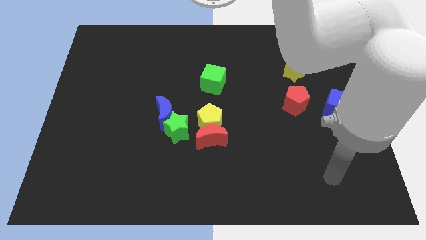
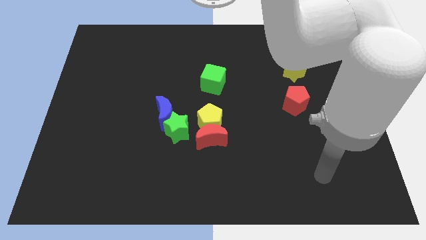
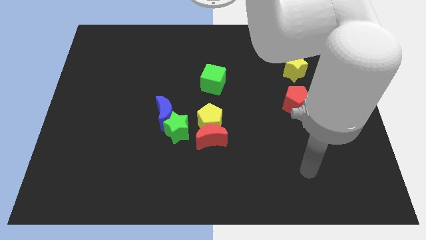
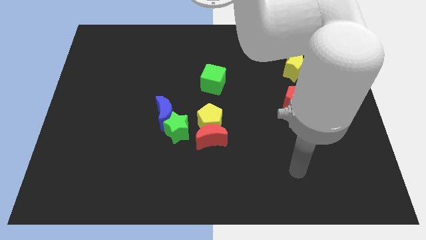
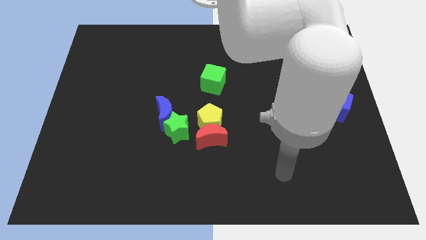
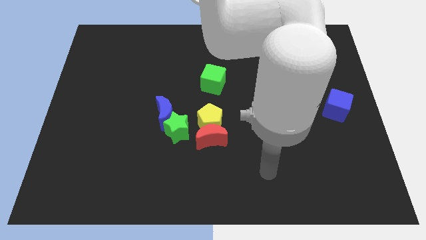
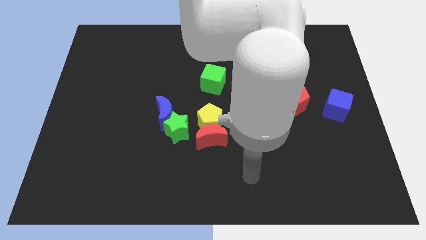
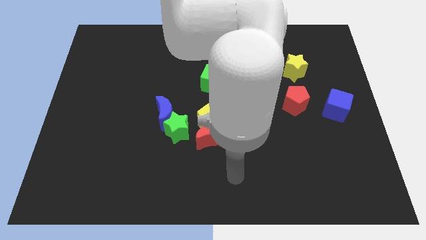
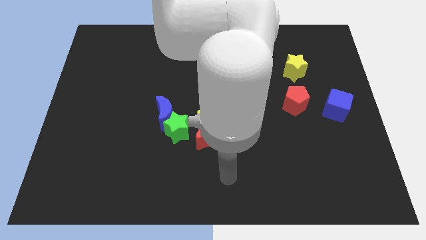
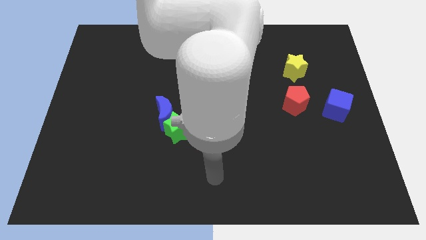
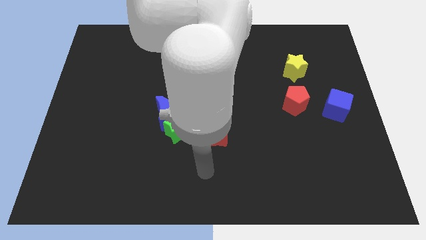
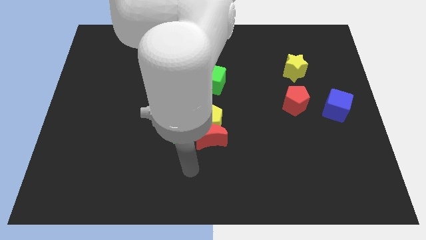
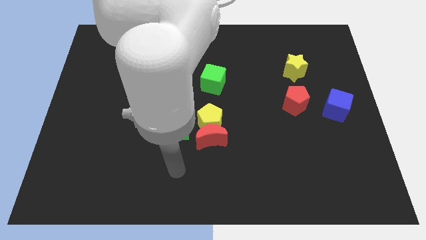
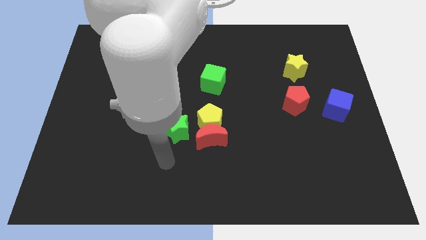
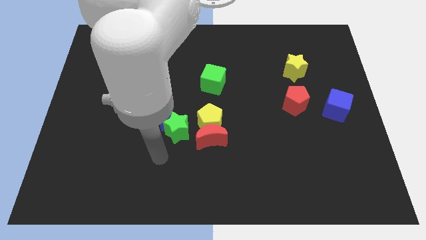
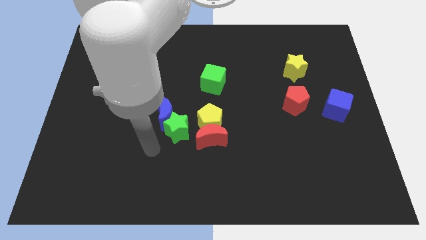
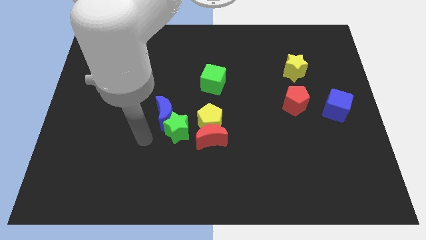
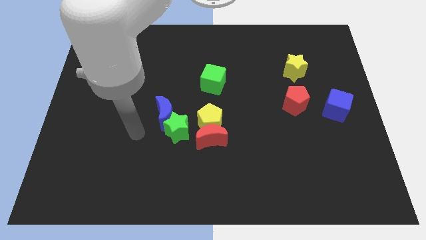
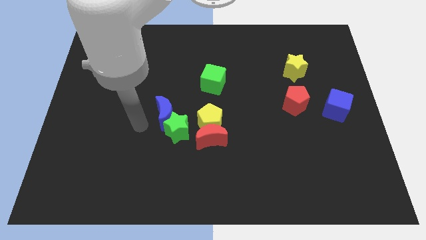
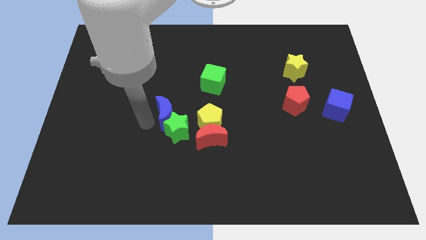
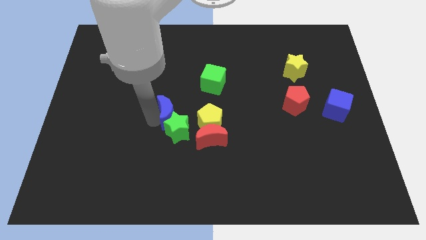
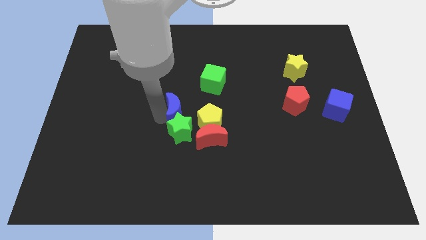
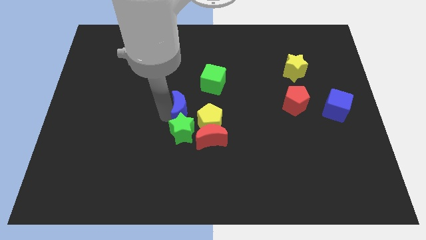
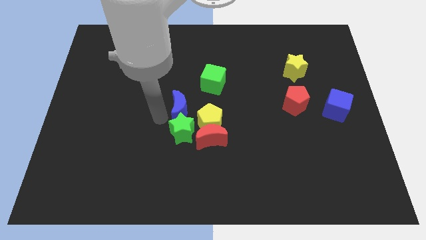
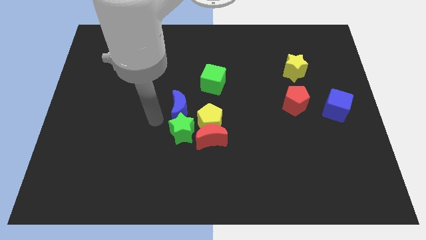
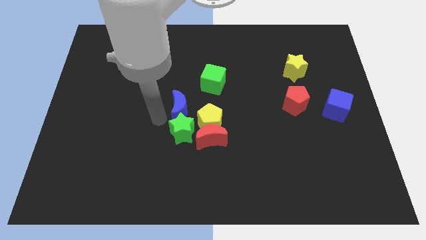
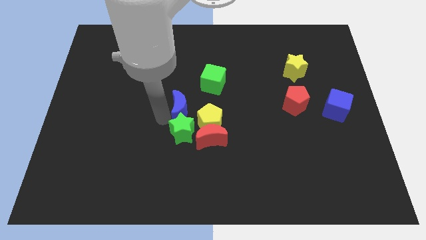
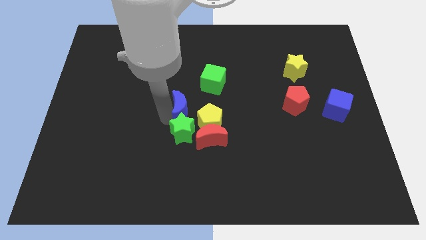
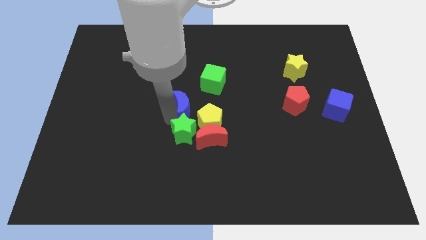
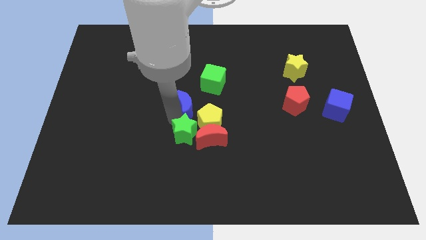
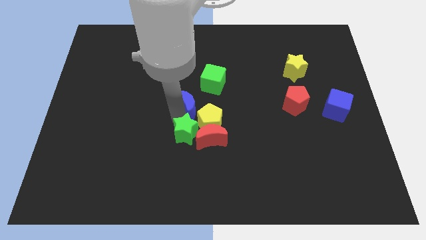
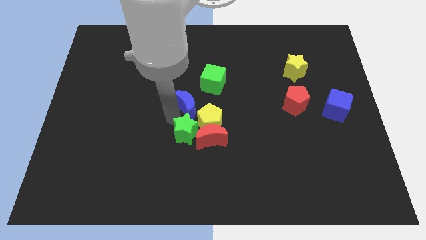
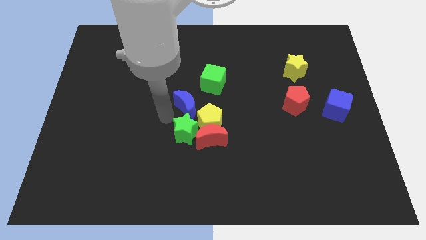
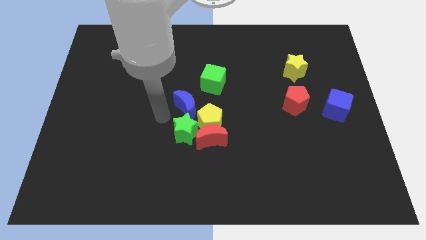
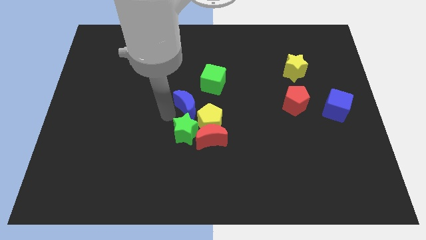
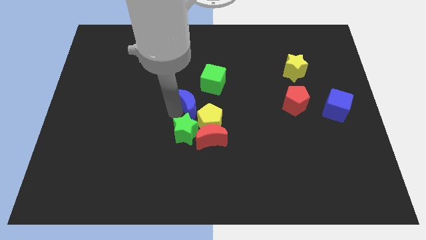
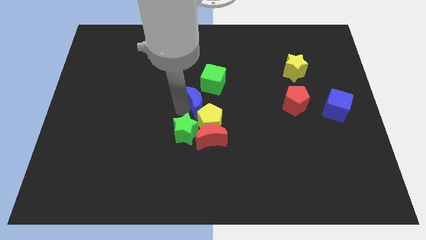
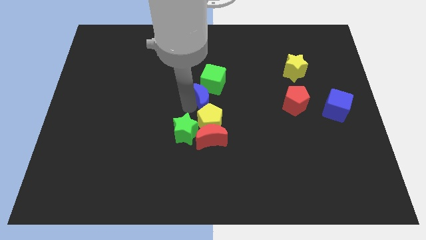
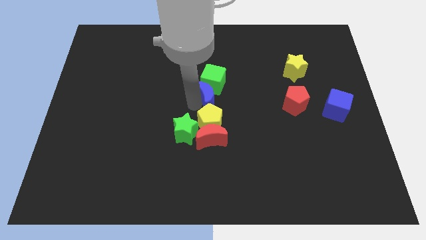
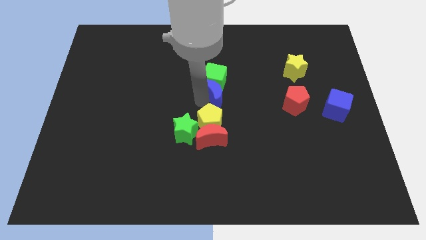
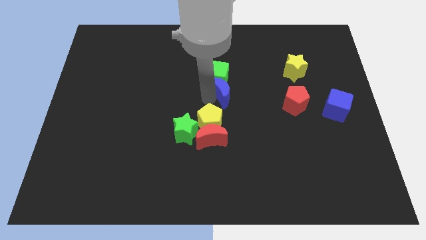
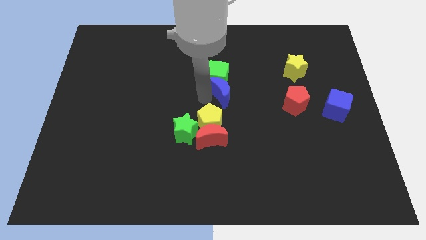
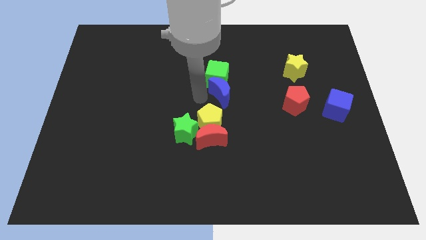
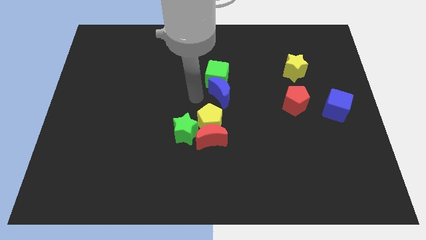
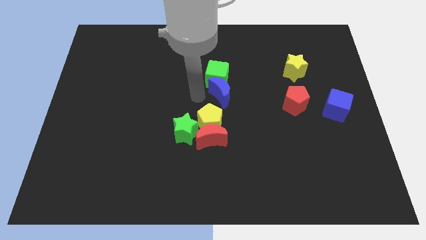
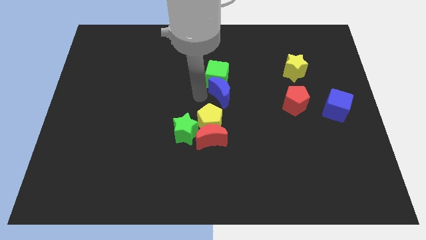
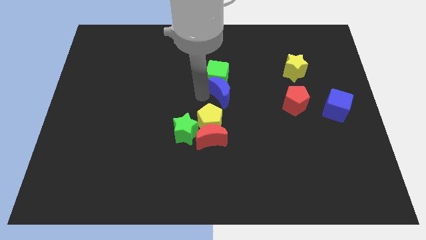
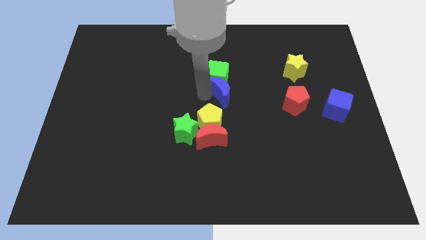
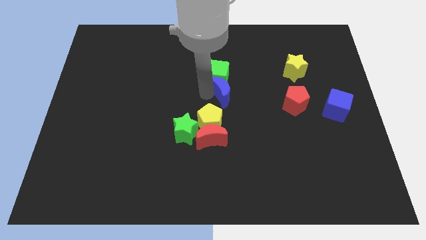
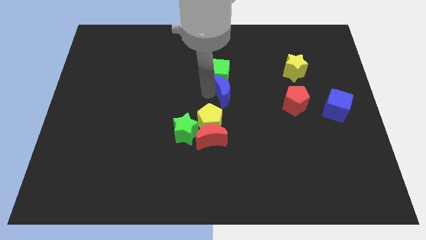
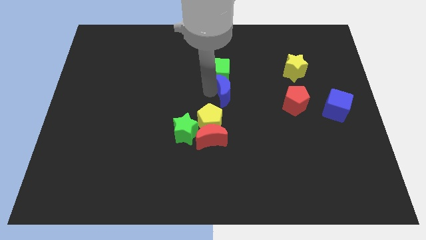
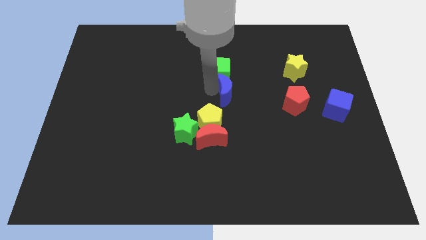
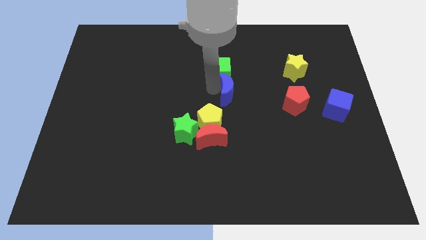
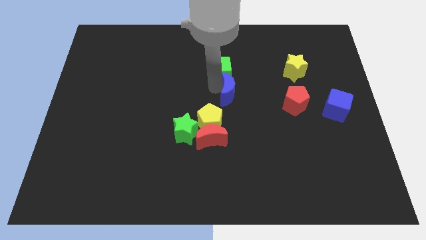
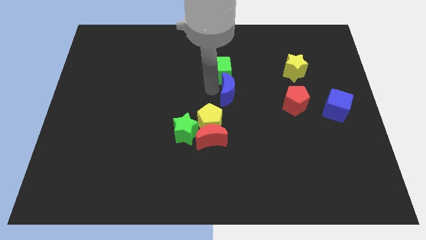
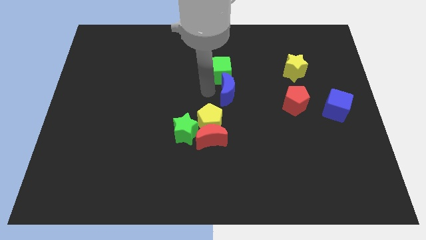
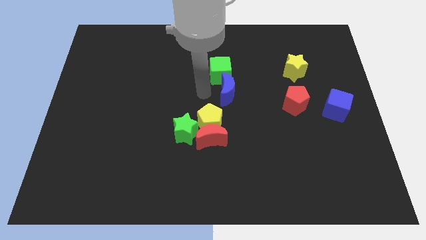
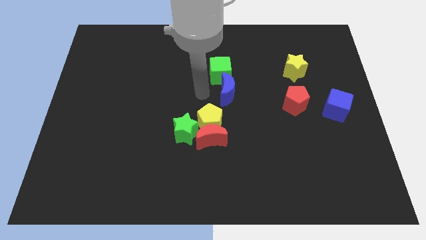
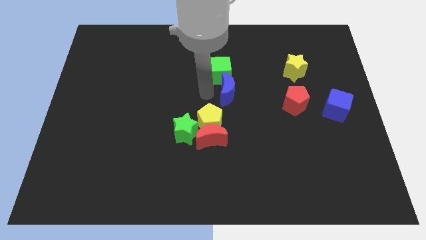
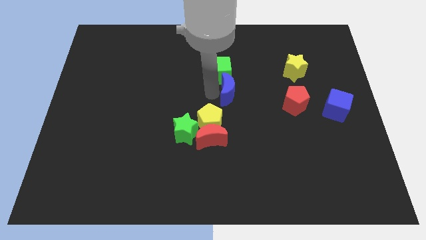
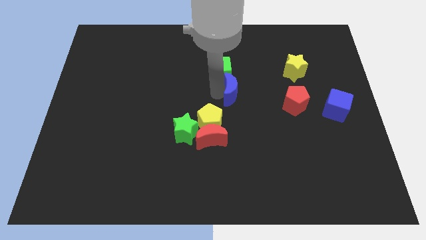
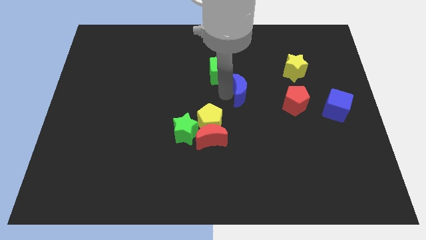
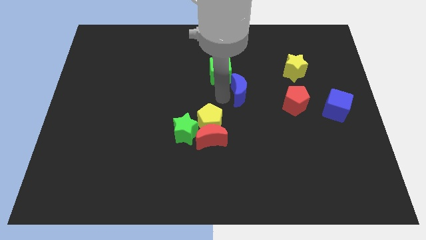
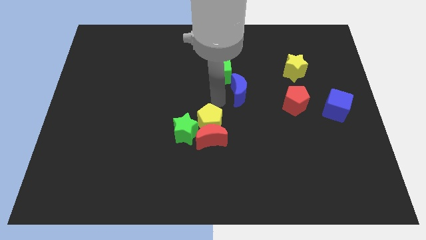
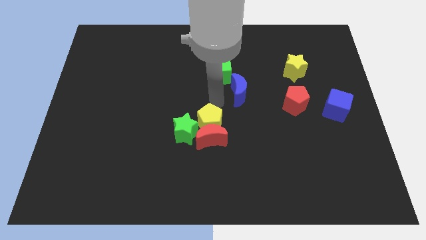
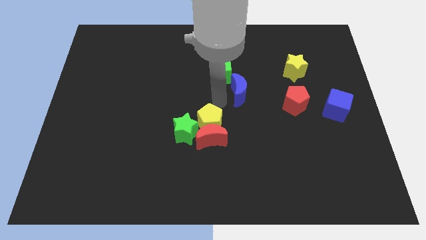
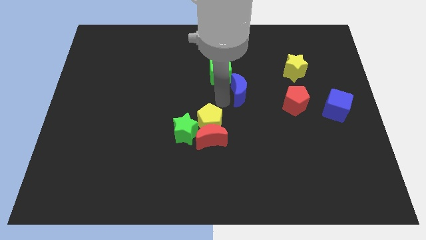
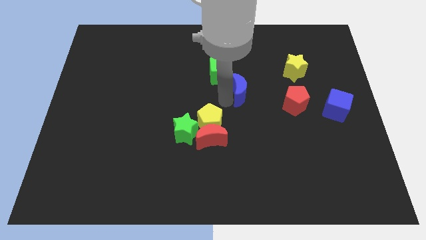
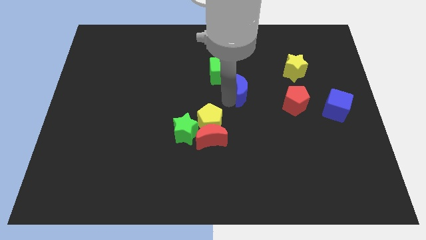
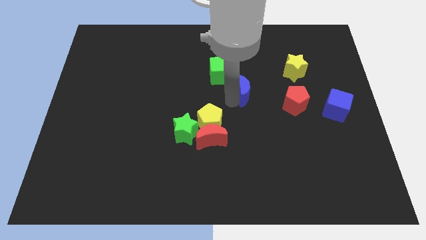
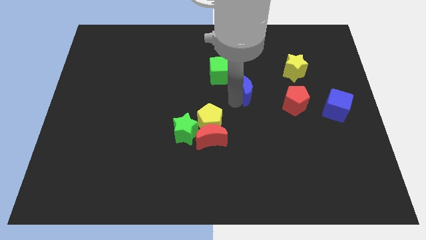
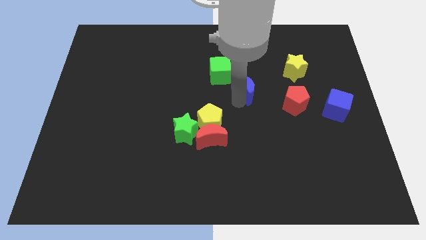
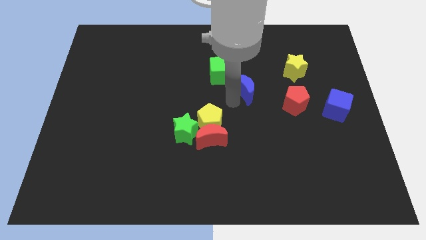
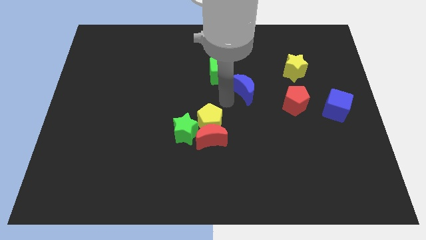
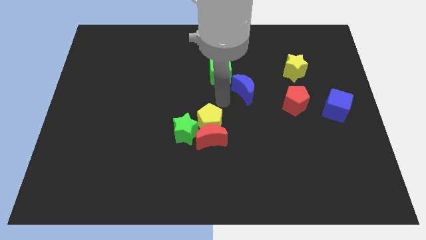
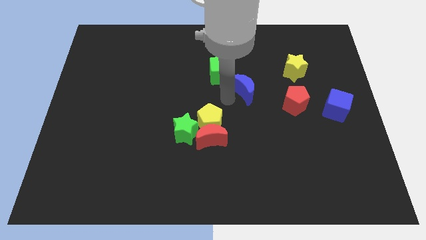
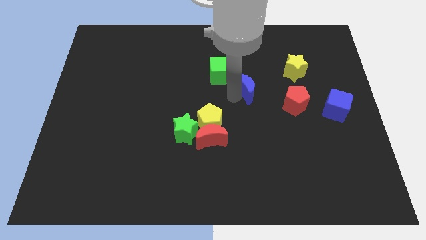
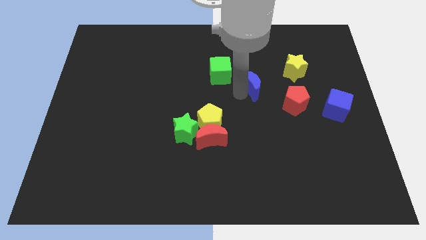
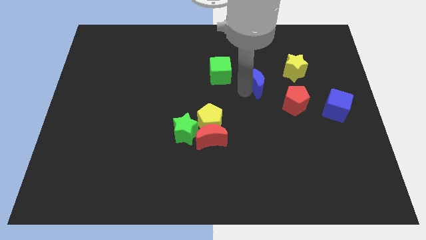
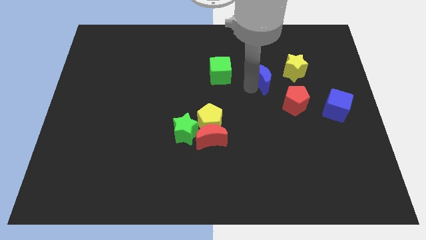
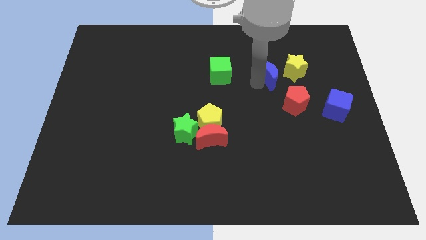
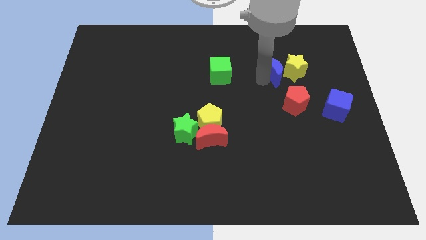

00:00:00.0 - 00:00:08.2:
push the blue moon next to the yellow star
